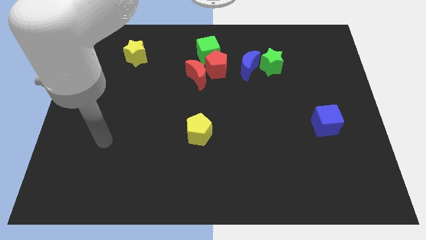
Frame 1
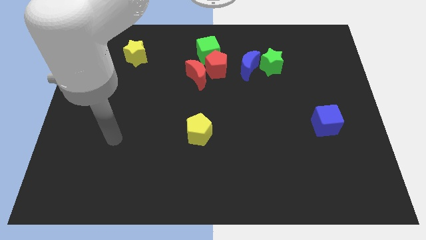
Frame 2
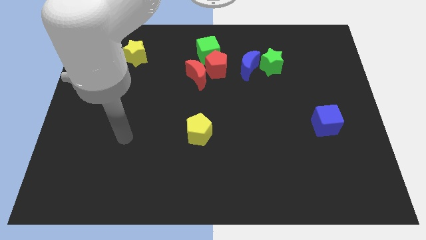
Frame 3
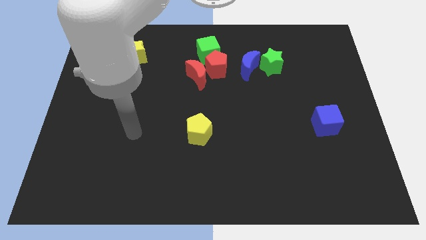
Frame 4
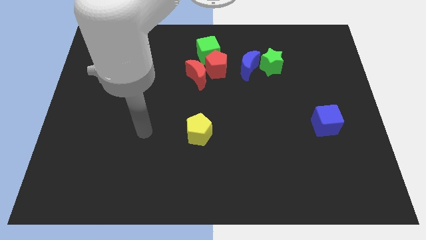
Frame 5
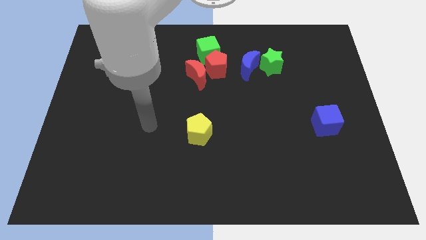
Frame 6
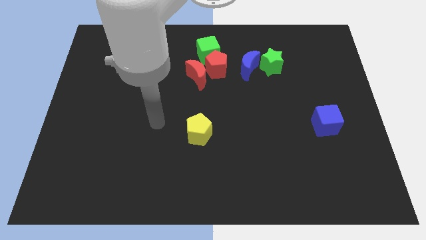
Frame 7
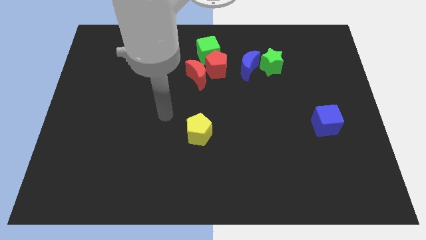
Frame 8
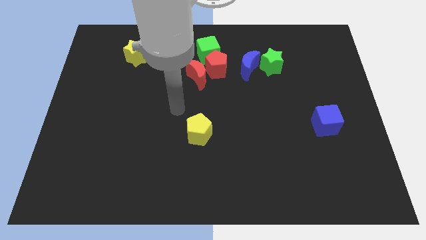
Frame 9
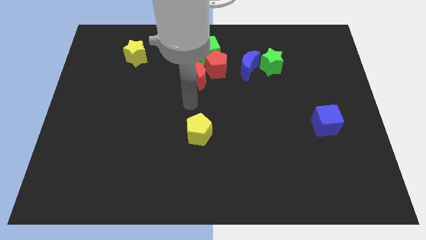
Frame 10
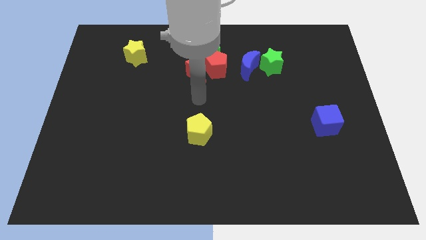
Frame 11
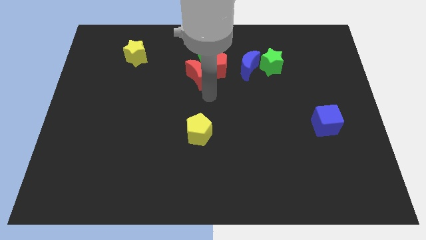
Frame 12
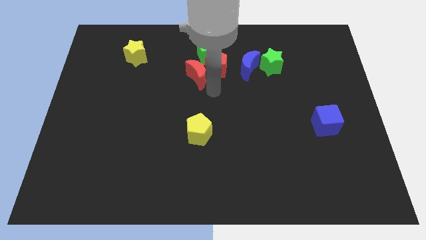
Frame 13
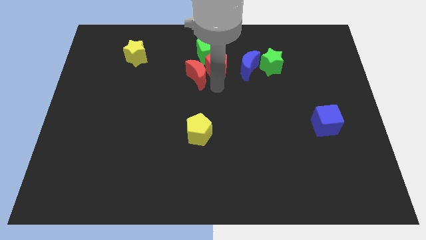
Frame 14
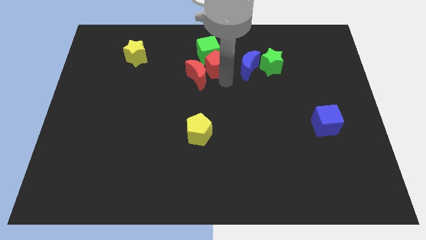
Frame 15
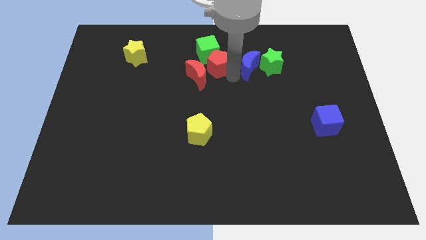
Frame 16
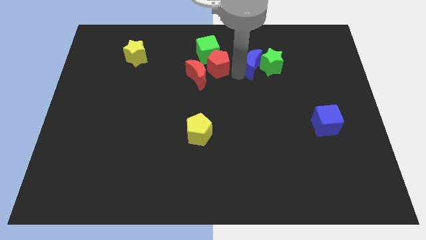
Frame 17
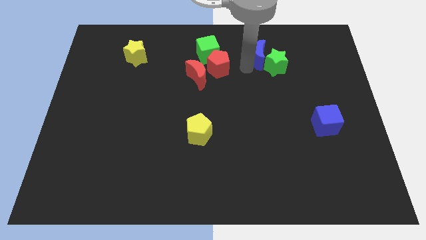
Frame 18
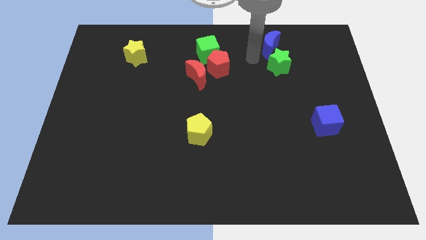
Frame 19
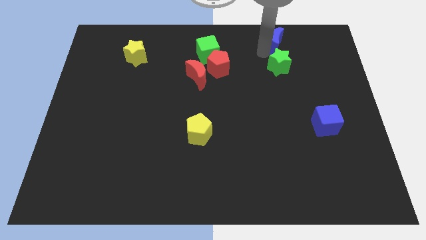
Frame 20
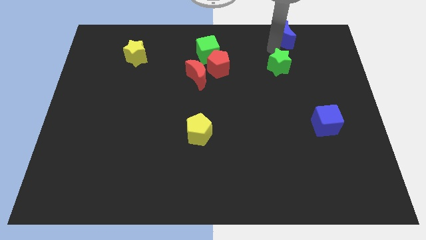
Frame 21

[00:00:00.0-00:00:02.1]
pull the green star apart from the blue moon

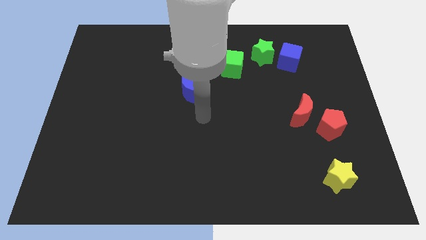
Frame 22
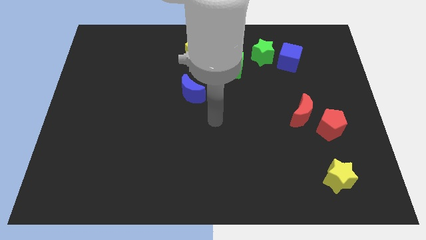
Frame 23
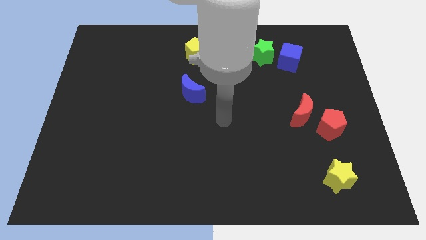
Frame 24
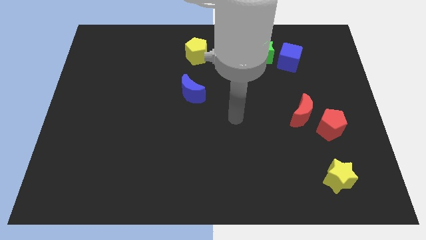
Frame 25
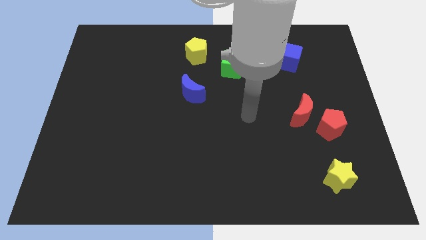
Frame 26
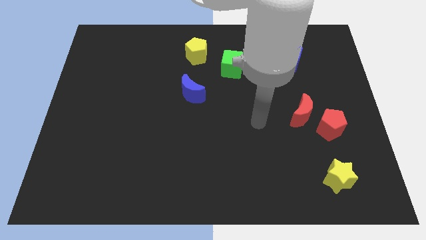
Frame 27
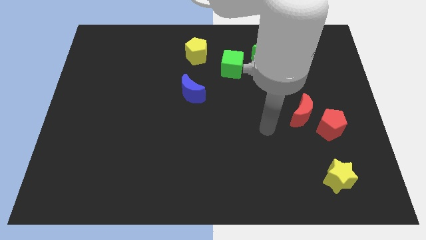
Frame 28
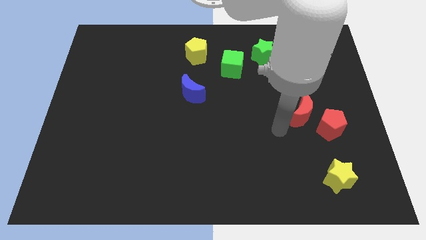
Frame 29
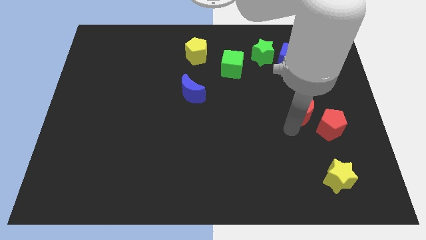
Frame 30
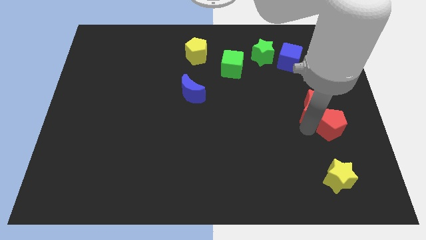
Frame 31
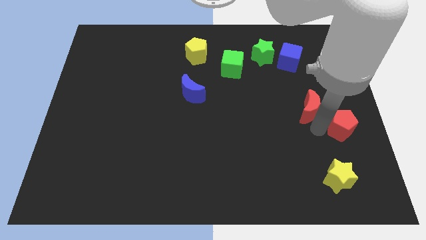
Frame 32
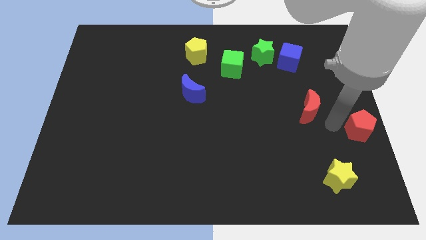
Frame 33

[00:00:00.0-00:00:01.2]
pull the red moon apart from the red pentagon

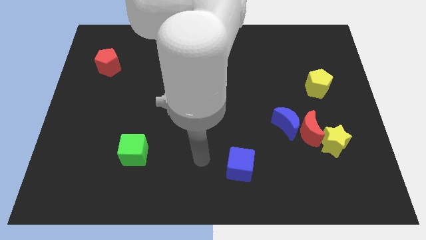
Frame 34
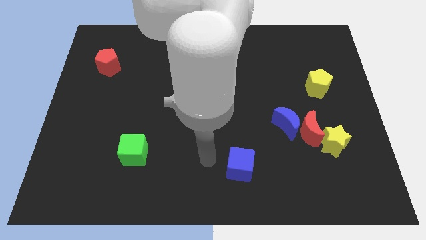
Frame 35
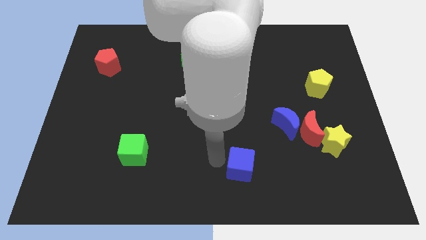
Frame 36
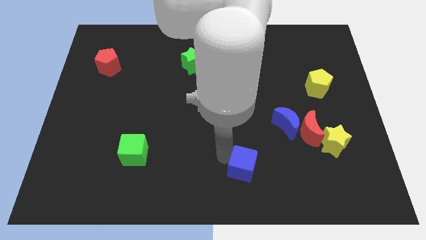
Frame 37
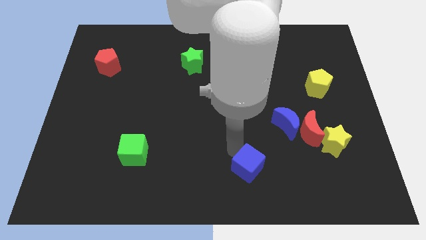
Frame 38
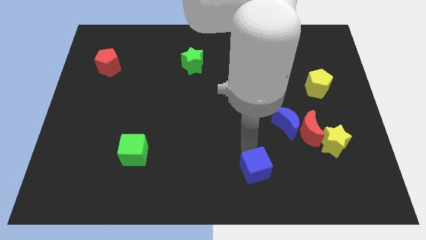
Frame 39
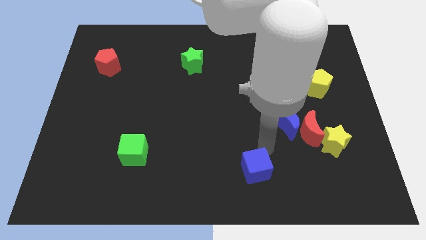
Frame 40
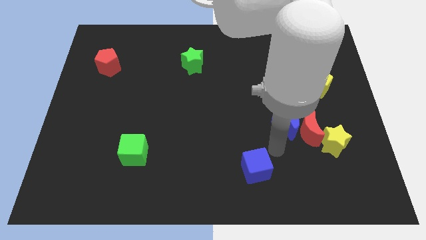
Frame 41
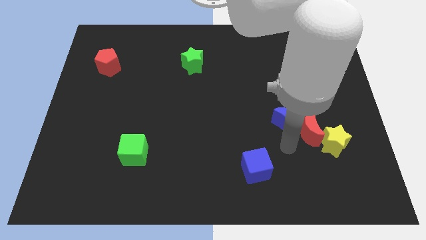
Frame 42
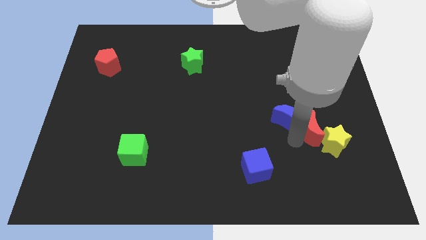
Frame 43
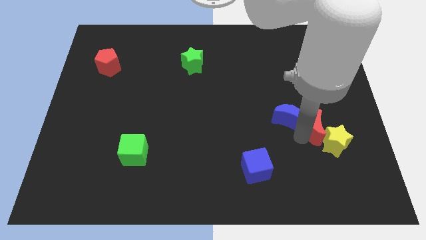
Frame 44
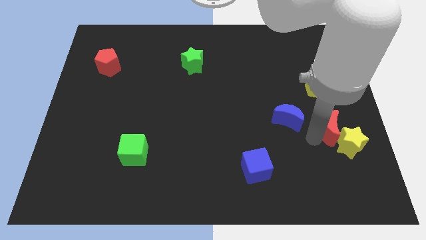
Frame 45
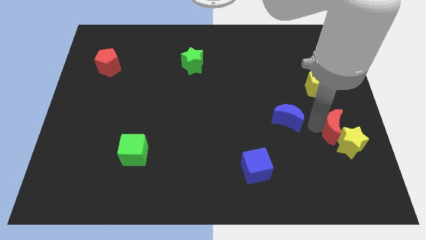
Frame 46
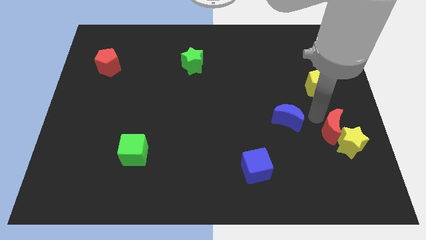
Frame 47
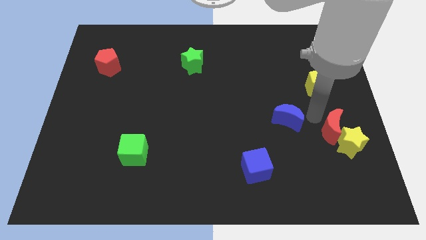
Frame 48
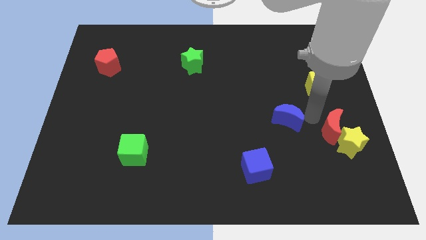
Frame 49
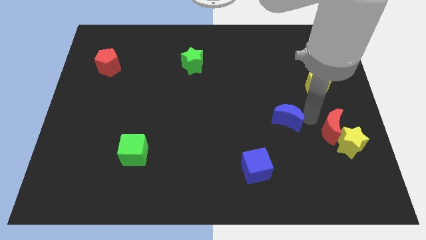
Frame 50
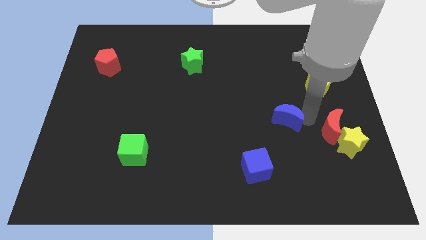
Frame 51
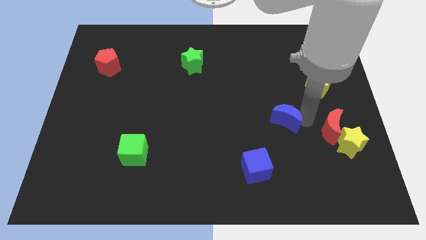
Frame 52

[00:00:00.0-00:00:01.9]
pull the blue moon apart from the red moon

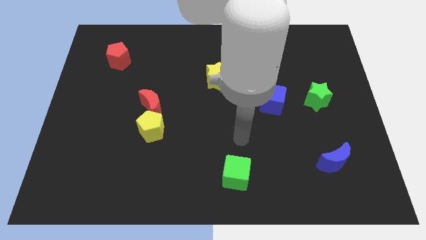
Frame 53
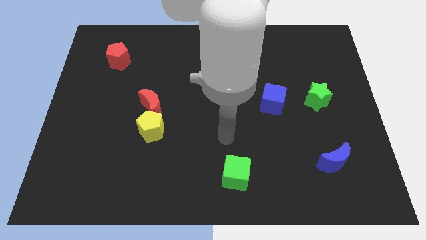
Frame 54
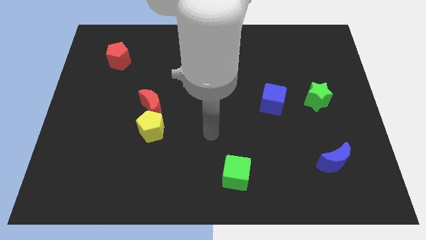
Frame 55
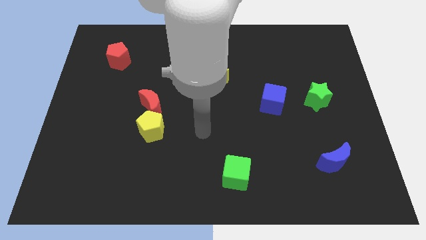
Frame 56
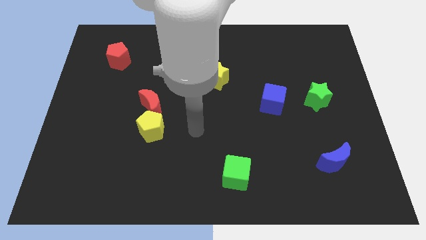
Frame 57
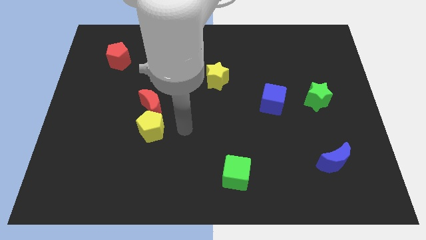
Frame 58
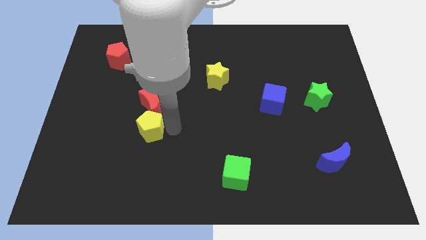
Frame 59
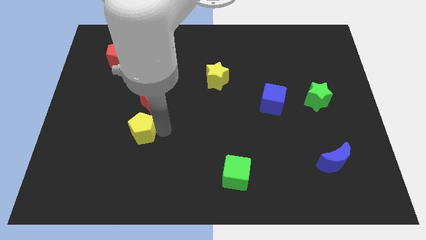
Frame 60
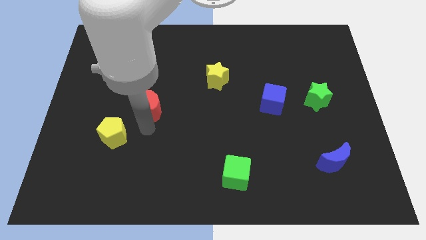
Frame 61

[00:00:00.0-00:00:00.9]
separate the red moon from the yellow pentagon

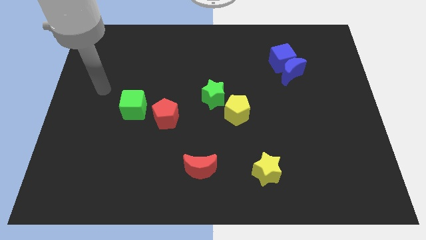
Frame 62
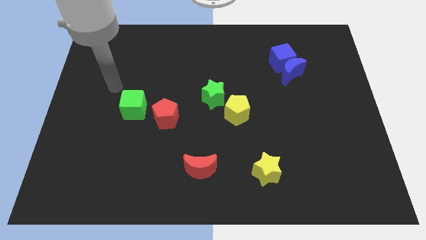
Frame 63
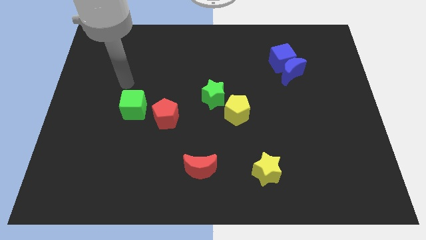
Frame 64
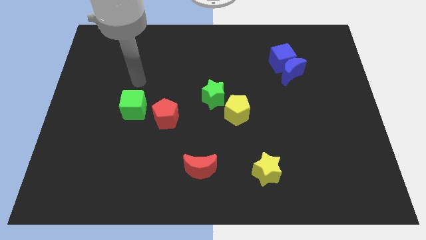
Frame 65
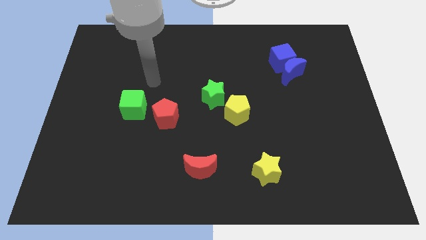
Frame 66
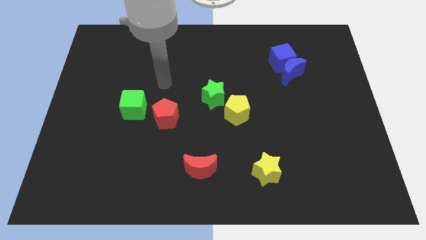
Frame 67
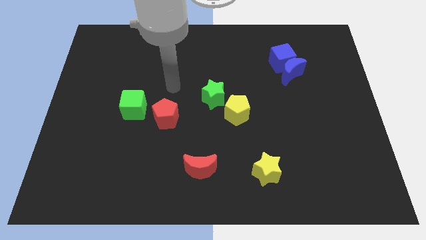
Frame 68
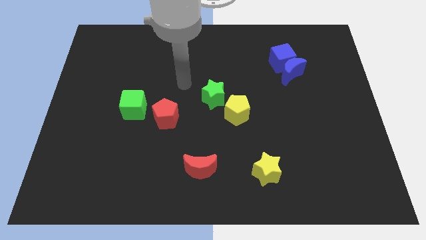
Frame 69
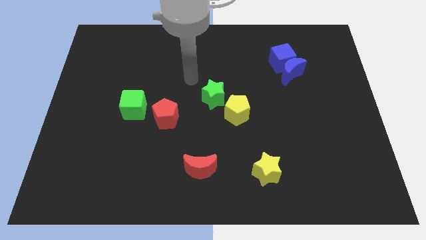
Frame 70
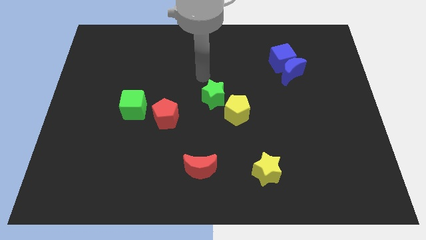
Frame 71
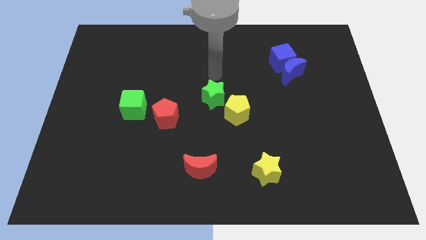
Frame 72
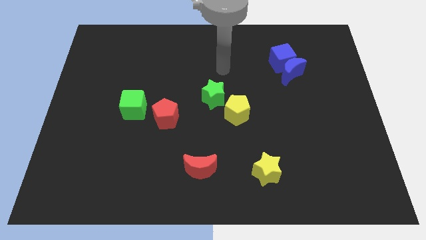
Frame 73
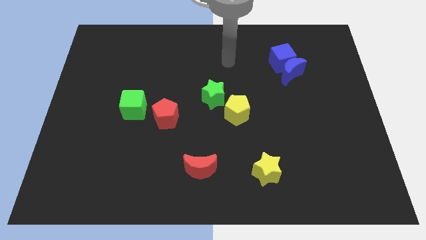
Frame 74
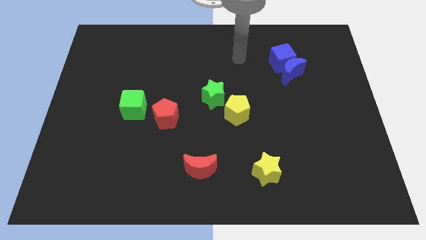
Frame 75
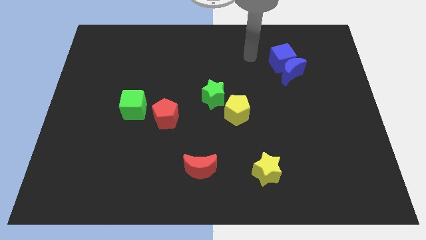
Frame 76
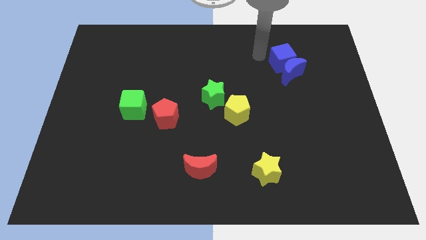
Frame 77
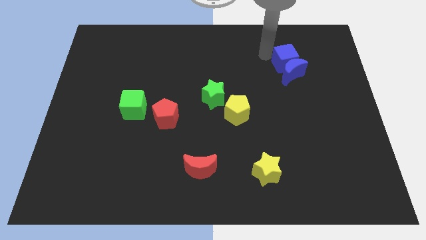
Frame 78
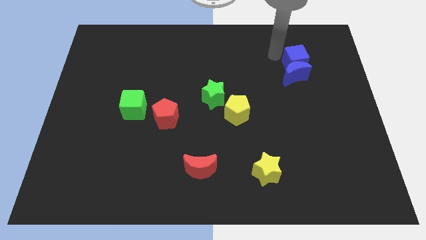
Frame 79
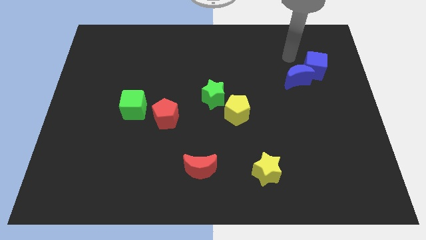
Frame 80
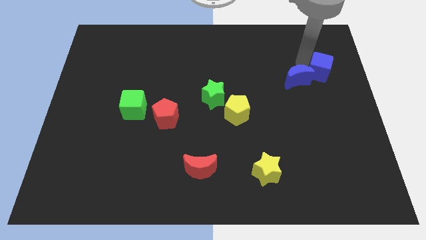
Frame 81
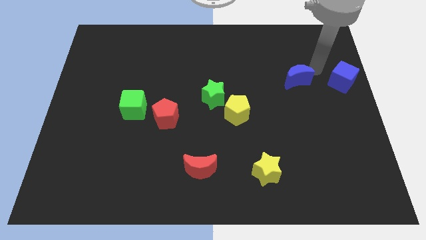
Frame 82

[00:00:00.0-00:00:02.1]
move the blue moon away from the blue cube

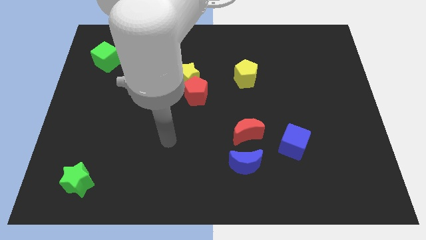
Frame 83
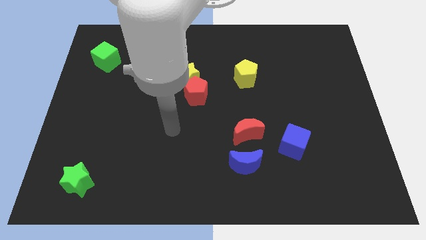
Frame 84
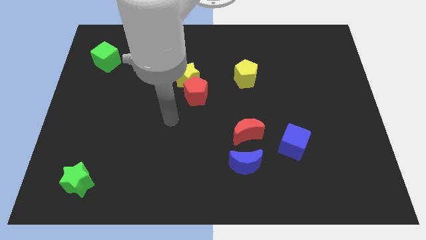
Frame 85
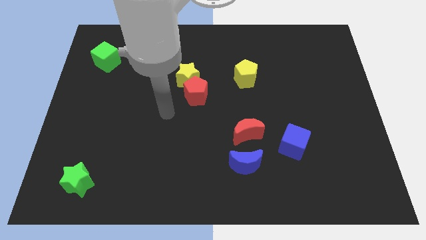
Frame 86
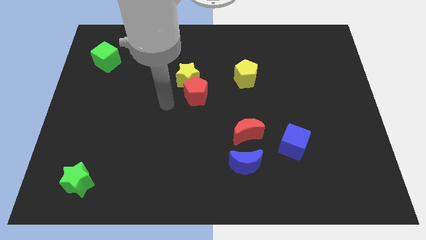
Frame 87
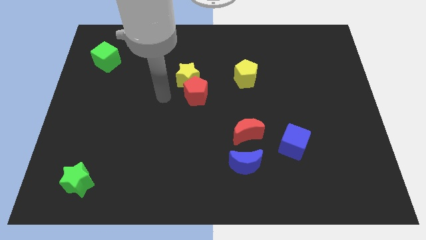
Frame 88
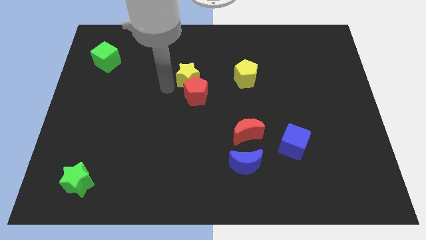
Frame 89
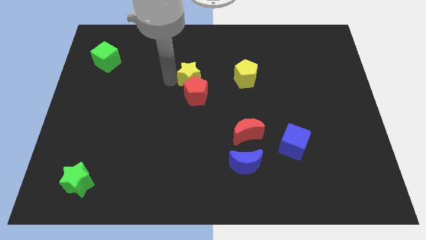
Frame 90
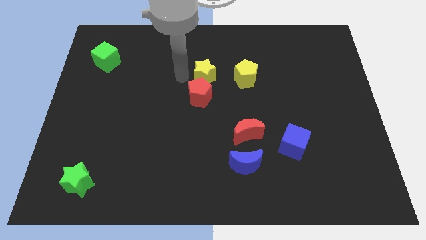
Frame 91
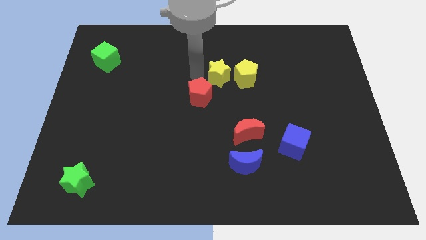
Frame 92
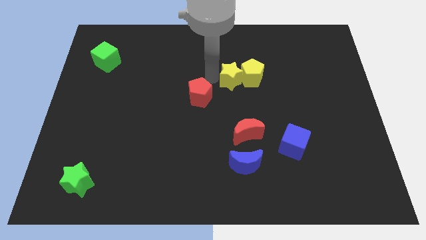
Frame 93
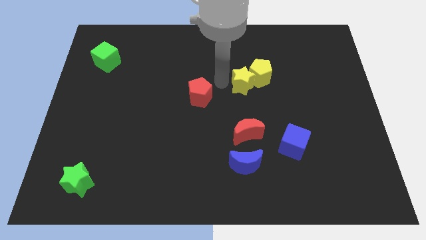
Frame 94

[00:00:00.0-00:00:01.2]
move the red pentagon away from the yellow star
